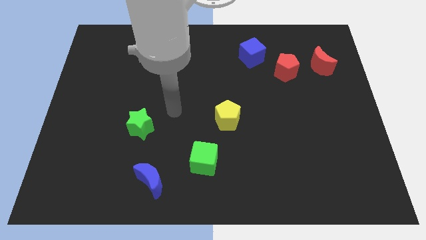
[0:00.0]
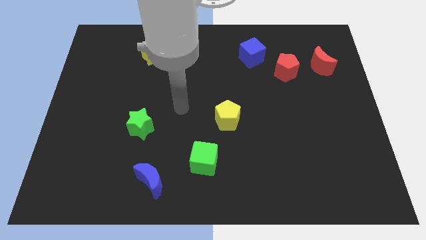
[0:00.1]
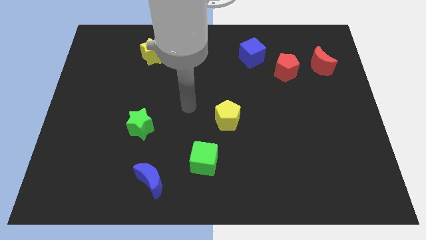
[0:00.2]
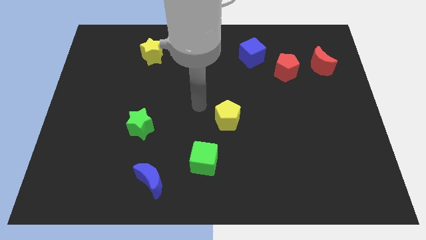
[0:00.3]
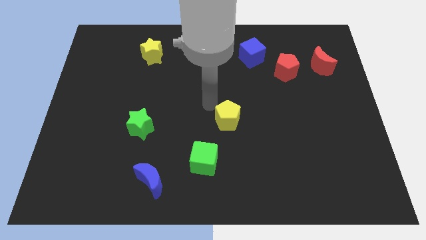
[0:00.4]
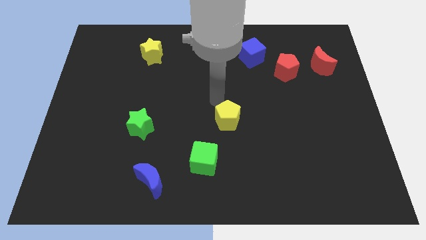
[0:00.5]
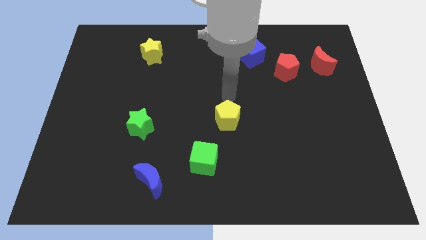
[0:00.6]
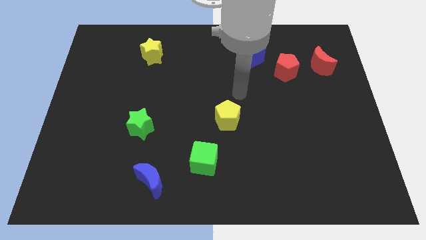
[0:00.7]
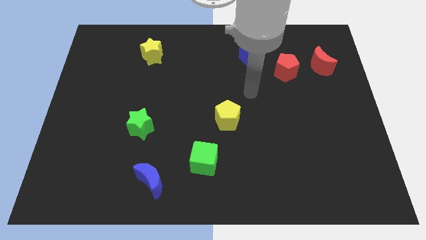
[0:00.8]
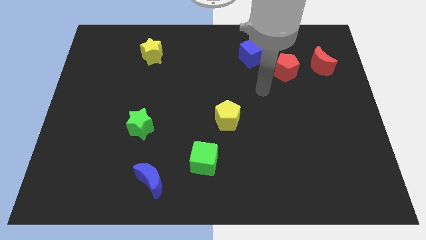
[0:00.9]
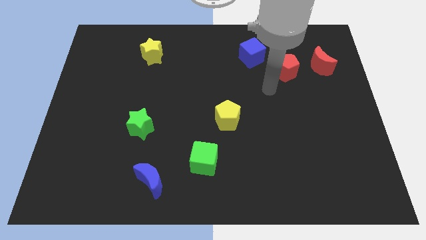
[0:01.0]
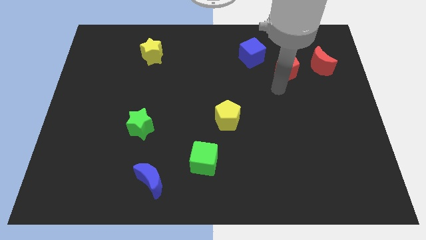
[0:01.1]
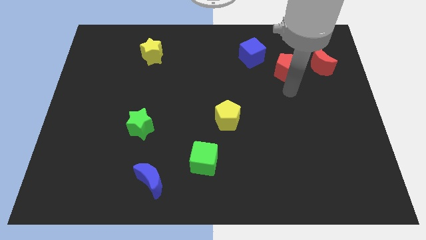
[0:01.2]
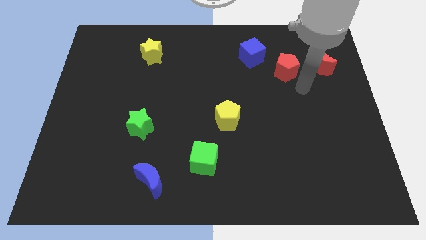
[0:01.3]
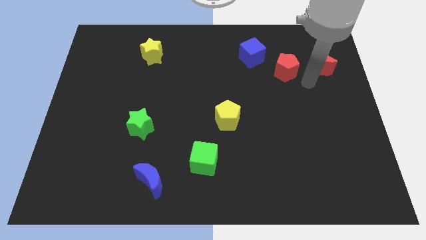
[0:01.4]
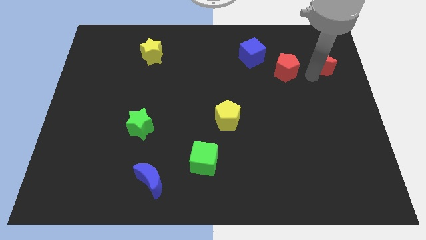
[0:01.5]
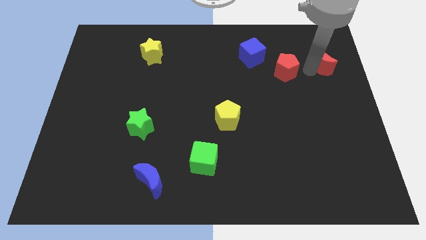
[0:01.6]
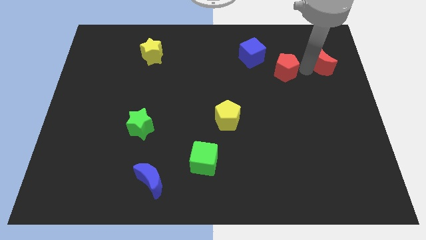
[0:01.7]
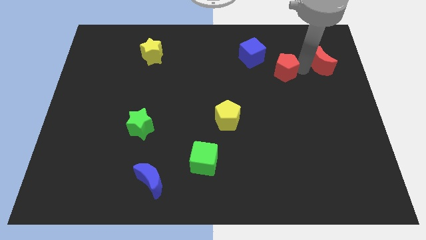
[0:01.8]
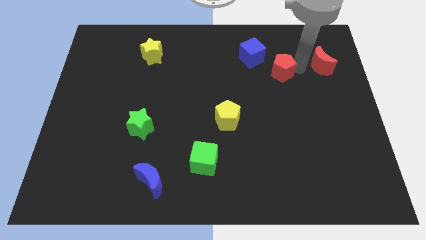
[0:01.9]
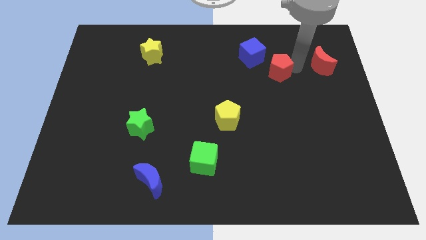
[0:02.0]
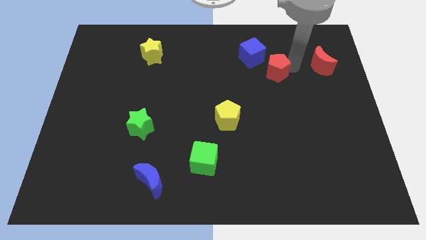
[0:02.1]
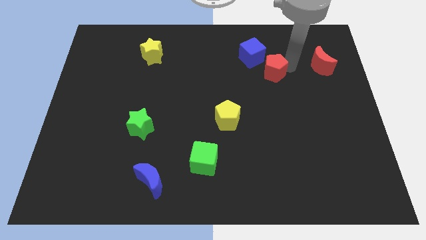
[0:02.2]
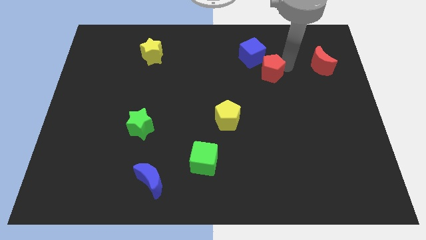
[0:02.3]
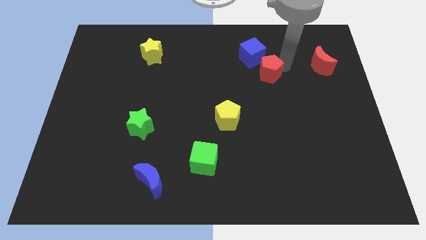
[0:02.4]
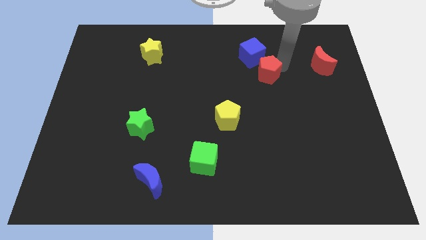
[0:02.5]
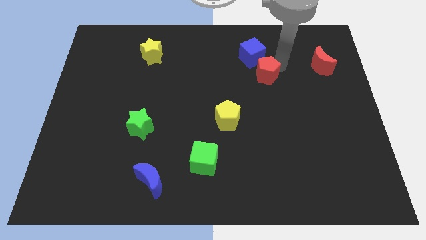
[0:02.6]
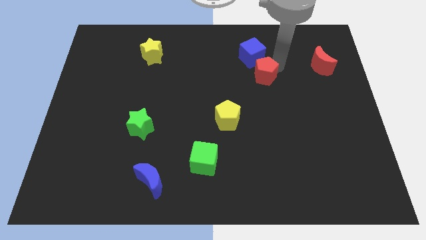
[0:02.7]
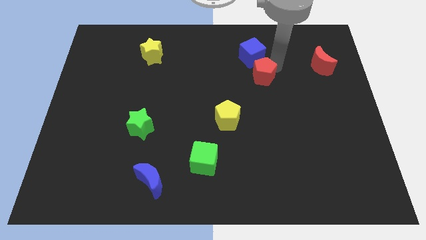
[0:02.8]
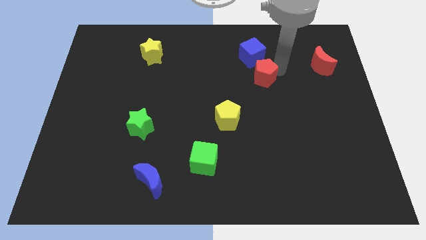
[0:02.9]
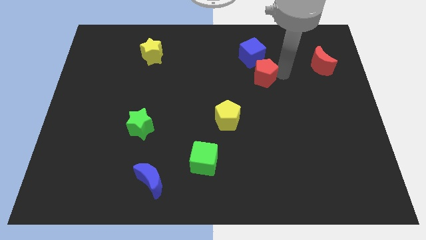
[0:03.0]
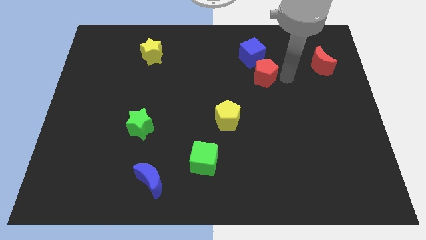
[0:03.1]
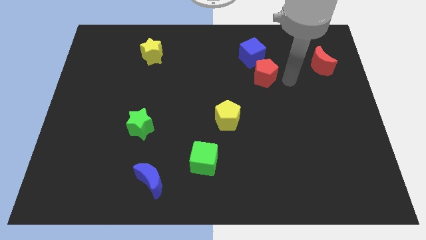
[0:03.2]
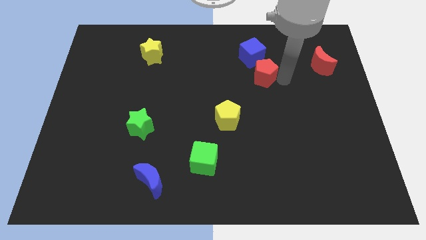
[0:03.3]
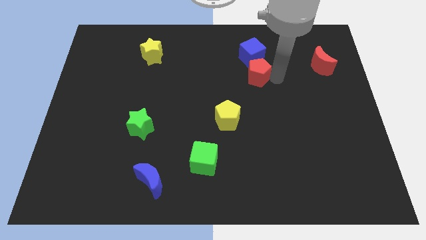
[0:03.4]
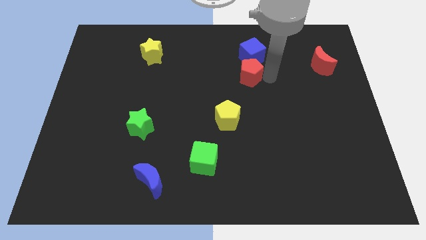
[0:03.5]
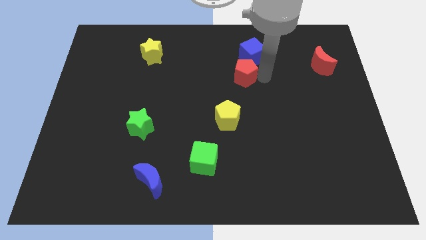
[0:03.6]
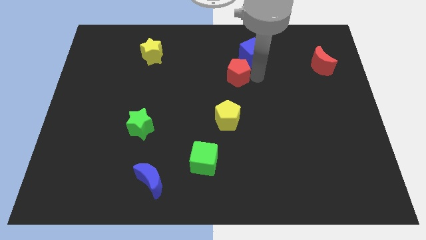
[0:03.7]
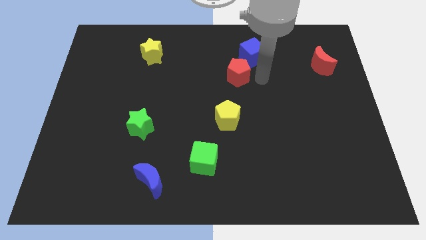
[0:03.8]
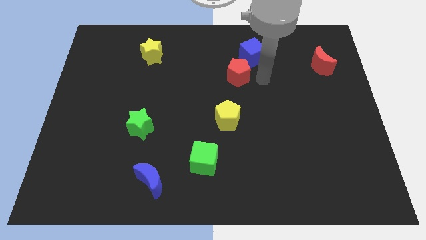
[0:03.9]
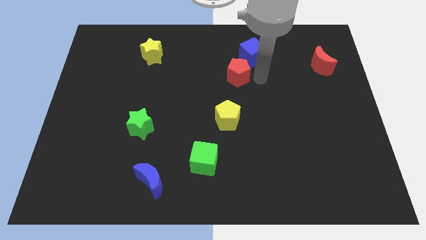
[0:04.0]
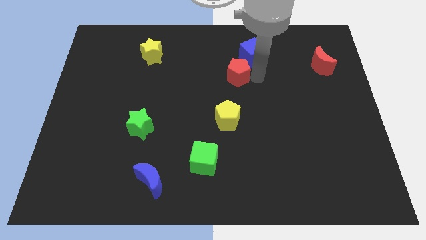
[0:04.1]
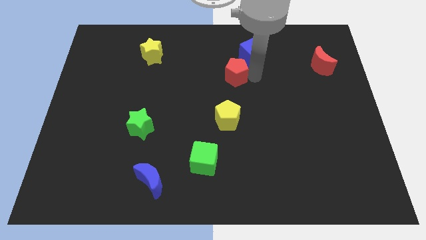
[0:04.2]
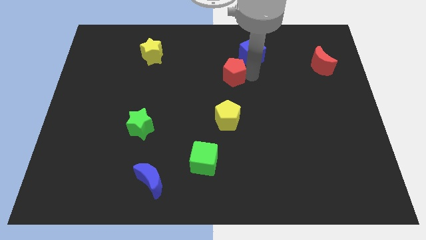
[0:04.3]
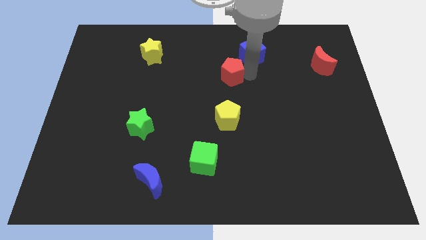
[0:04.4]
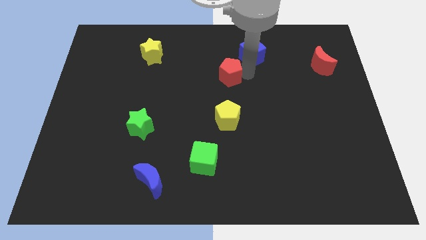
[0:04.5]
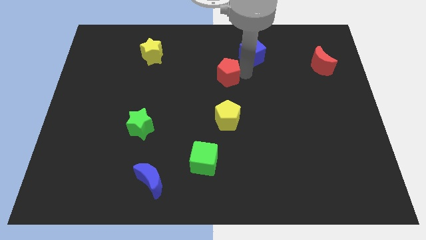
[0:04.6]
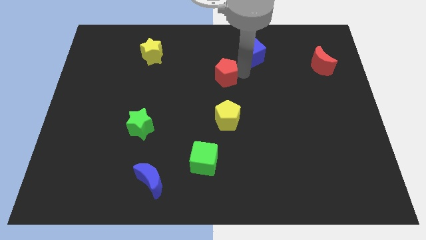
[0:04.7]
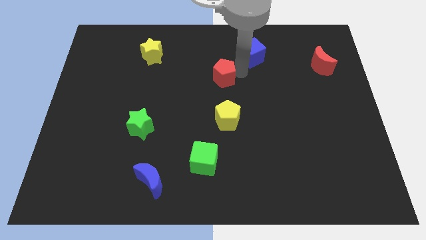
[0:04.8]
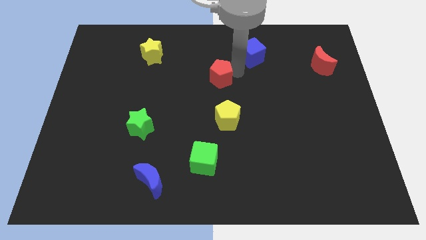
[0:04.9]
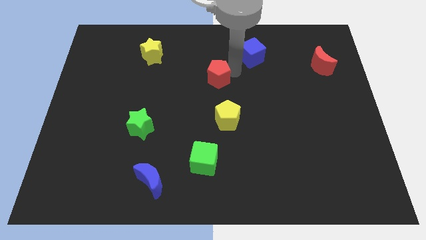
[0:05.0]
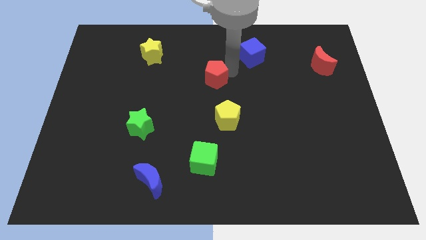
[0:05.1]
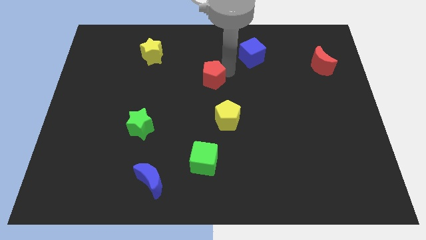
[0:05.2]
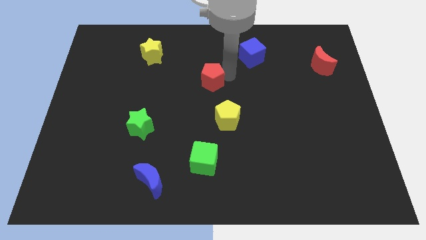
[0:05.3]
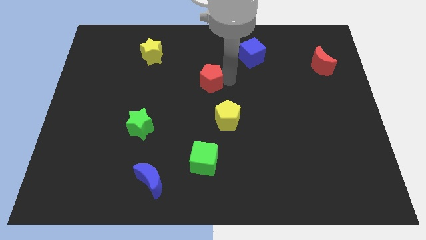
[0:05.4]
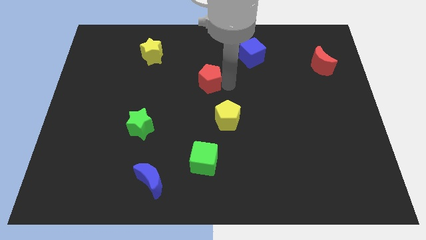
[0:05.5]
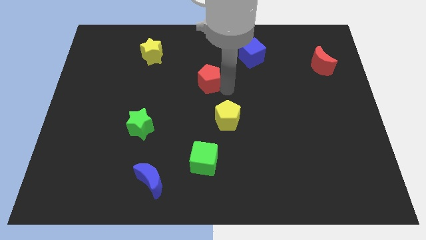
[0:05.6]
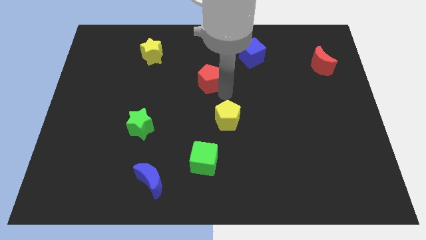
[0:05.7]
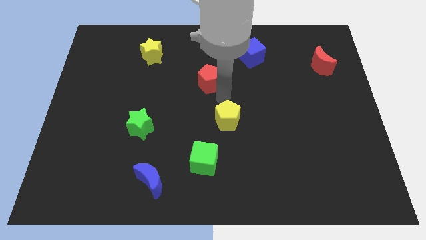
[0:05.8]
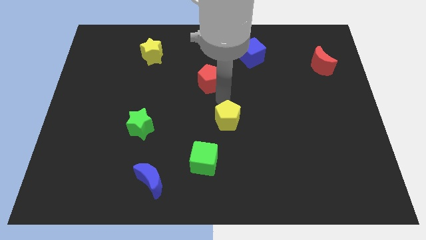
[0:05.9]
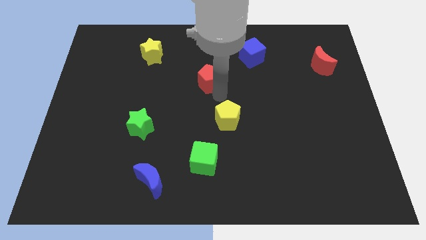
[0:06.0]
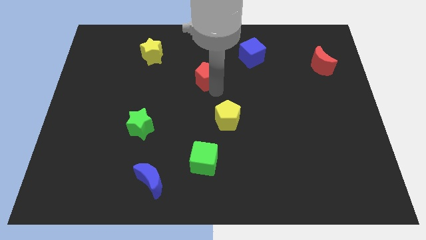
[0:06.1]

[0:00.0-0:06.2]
slide the red pentagon left

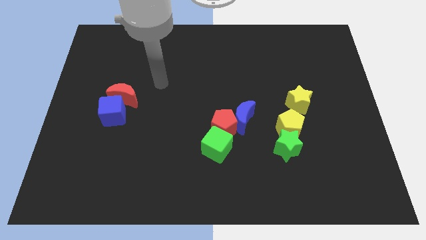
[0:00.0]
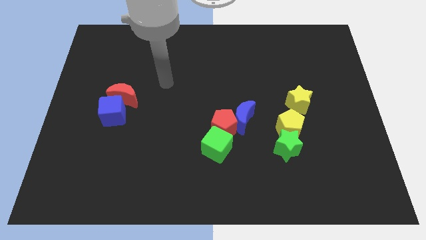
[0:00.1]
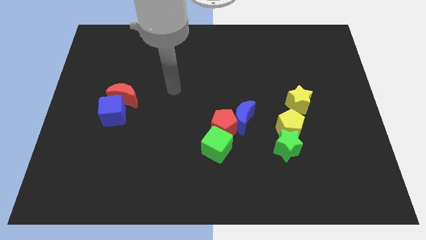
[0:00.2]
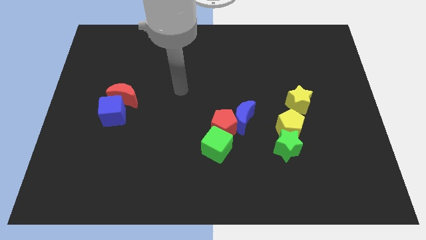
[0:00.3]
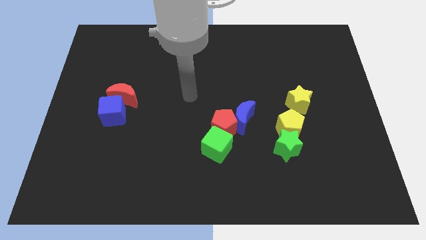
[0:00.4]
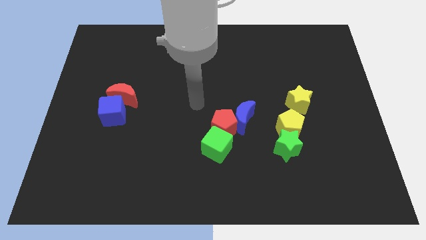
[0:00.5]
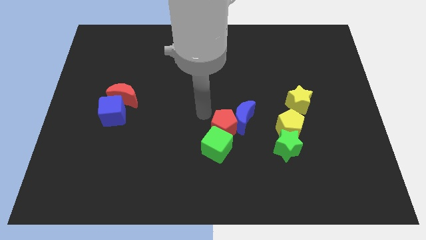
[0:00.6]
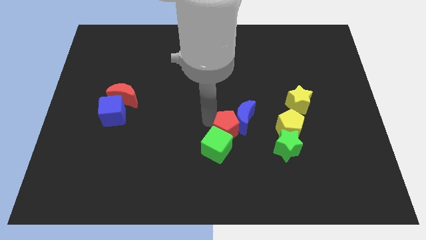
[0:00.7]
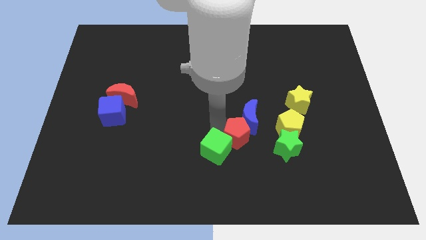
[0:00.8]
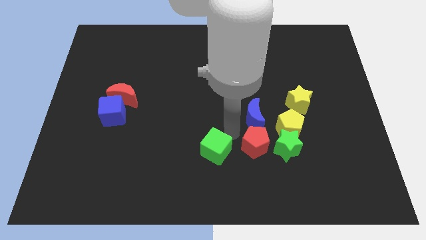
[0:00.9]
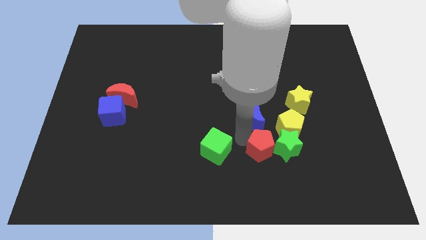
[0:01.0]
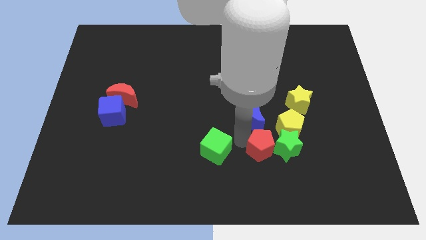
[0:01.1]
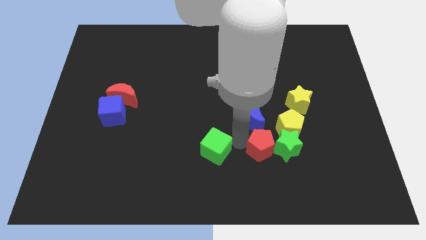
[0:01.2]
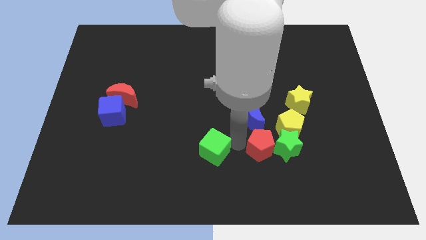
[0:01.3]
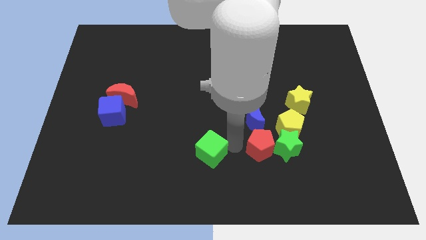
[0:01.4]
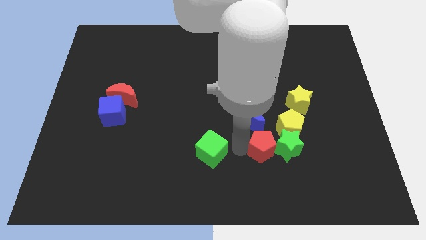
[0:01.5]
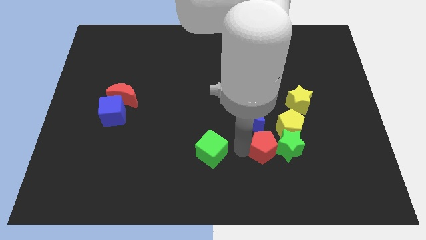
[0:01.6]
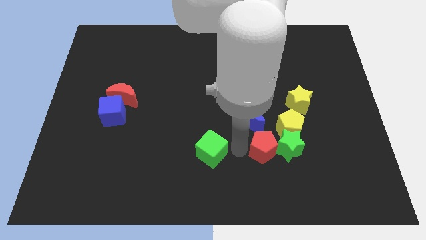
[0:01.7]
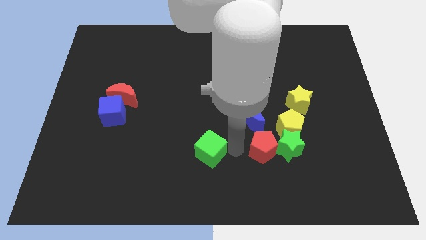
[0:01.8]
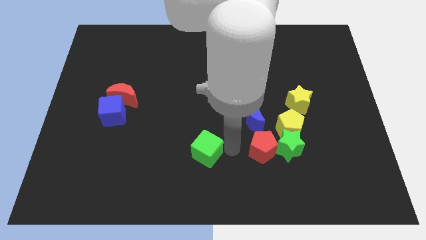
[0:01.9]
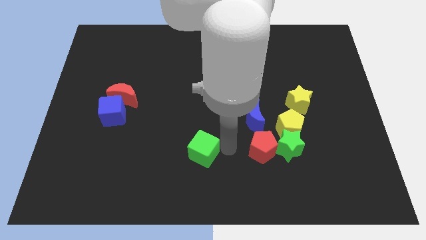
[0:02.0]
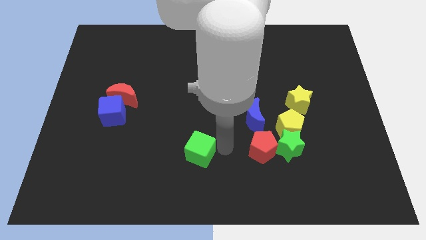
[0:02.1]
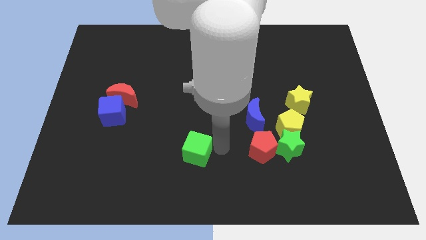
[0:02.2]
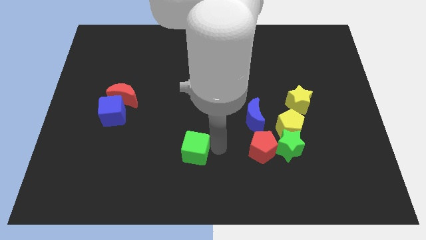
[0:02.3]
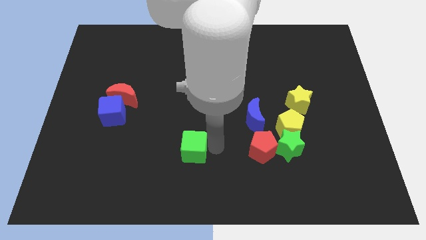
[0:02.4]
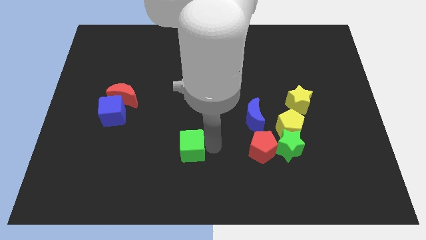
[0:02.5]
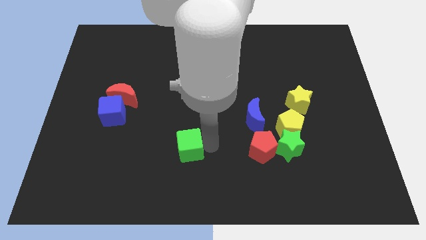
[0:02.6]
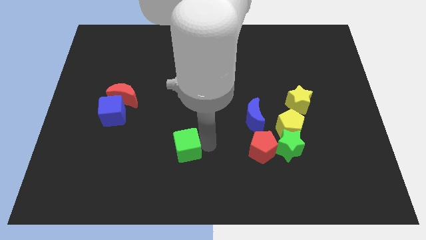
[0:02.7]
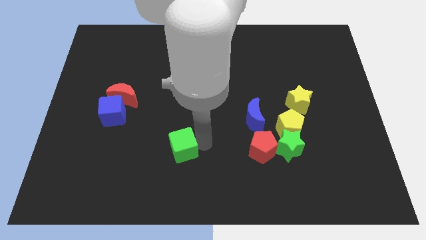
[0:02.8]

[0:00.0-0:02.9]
slide the green cube a bit left
